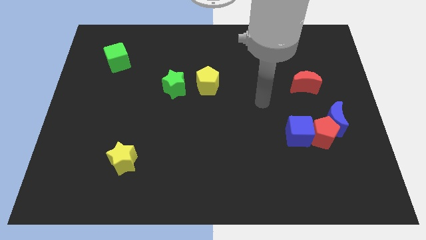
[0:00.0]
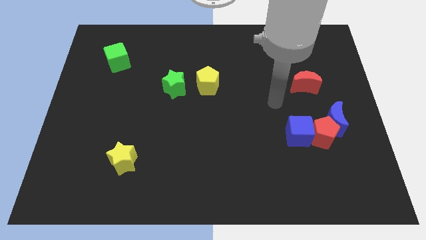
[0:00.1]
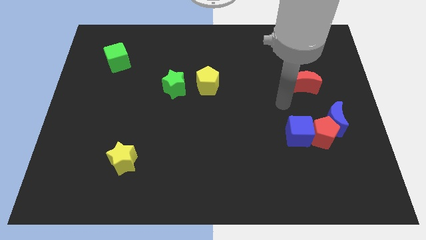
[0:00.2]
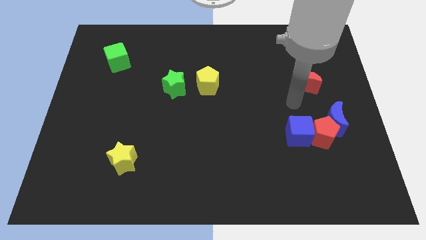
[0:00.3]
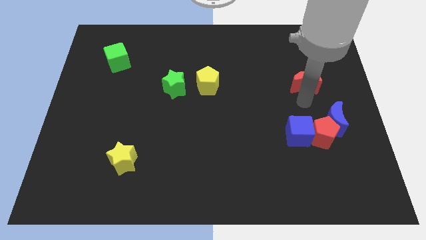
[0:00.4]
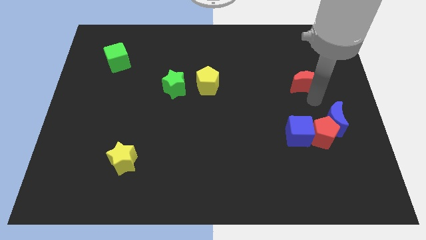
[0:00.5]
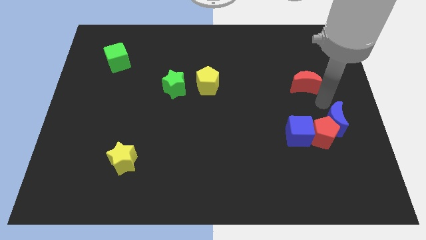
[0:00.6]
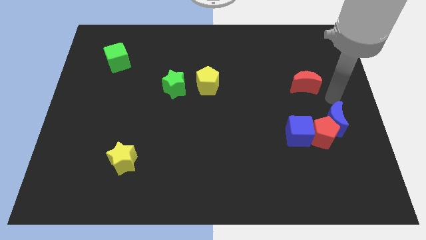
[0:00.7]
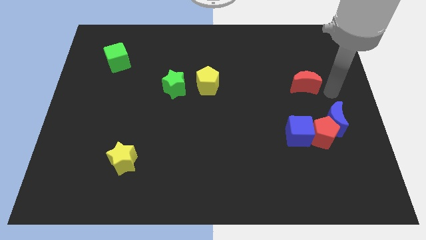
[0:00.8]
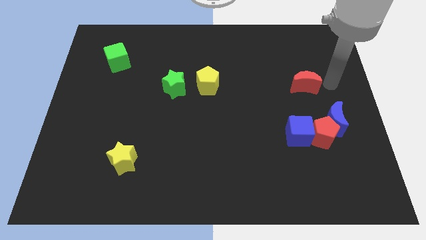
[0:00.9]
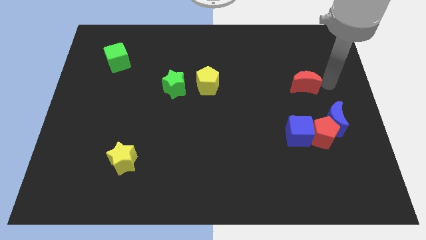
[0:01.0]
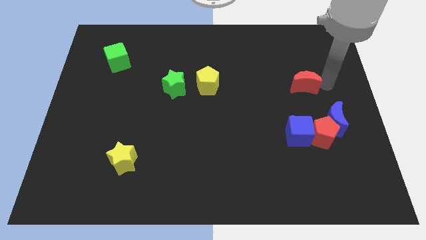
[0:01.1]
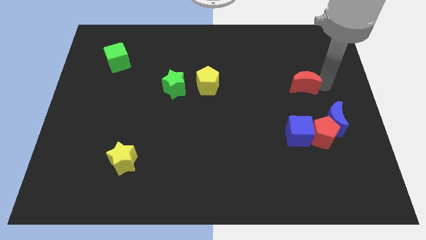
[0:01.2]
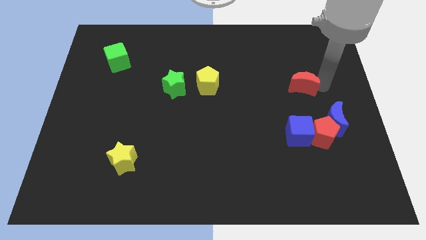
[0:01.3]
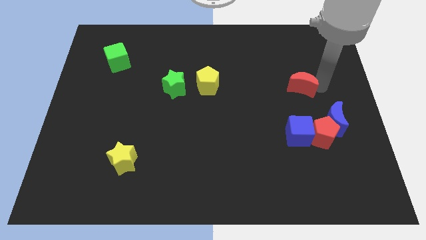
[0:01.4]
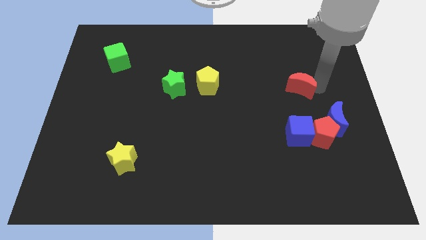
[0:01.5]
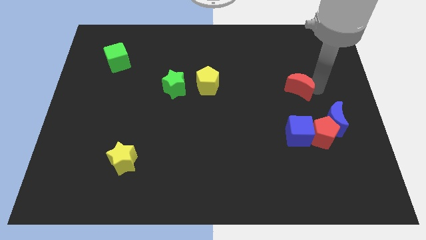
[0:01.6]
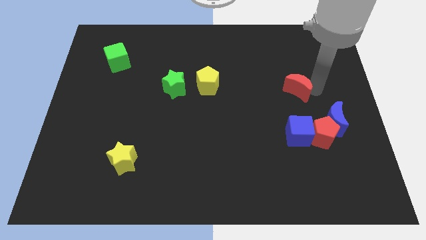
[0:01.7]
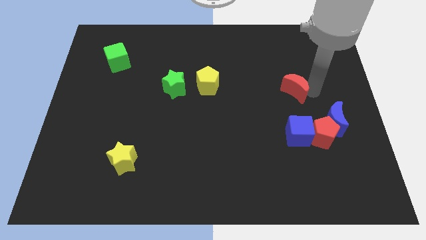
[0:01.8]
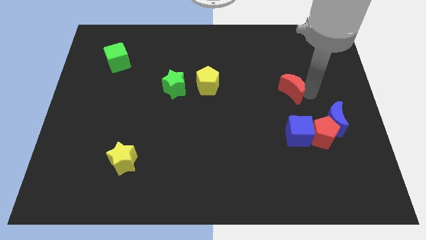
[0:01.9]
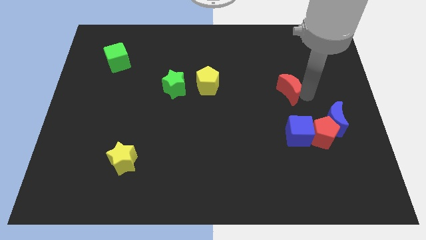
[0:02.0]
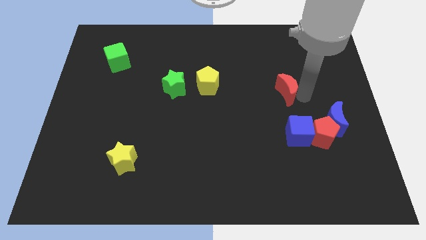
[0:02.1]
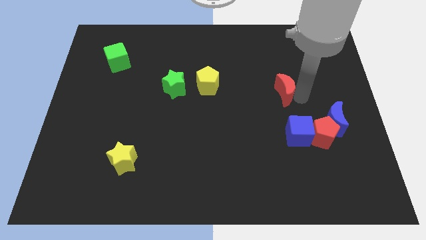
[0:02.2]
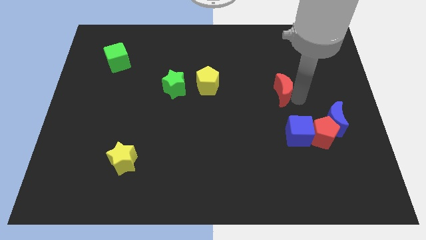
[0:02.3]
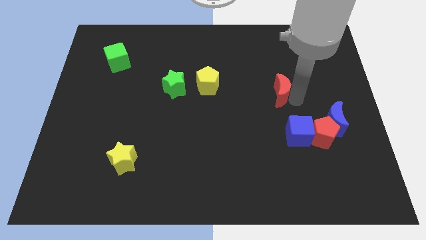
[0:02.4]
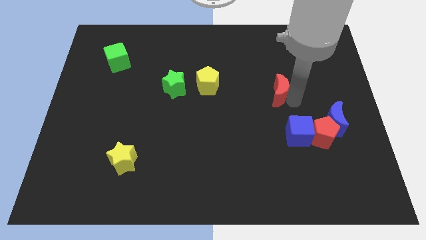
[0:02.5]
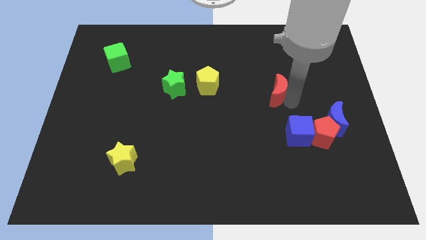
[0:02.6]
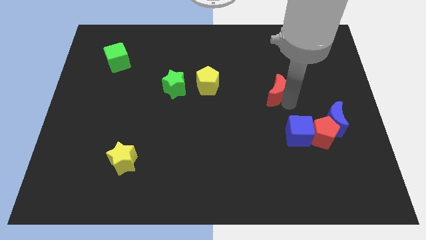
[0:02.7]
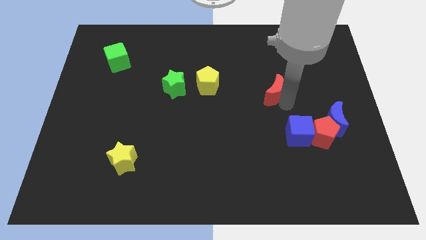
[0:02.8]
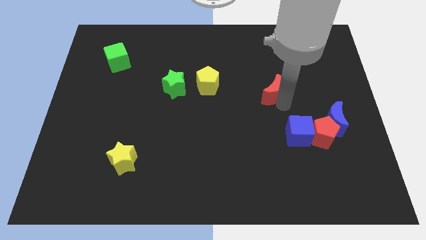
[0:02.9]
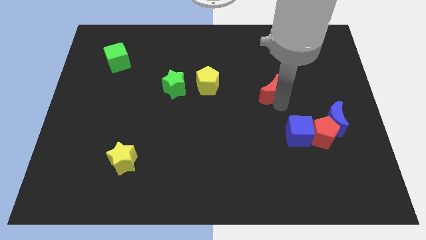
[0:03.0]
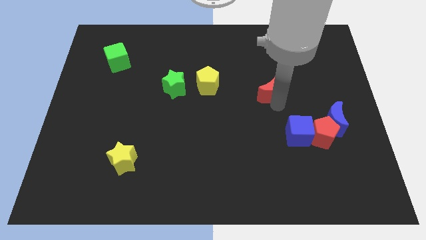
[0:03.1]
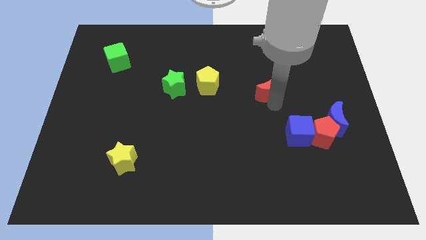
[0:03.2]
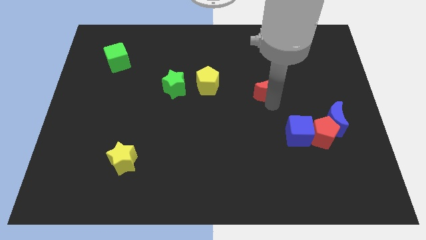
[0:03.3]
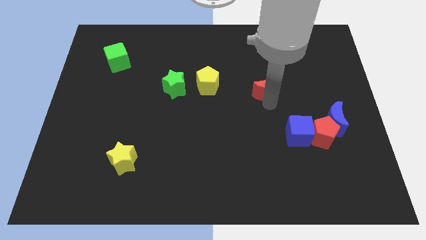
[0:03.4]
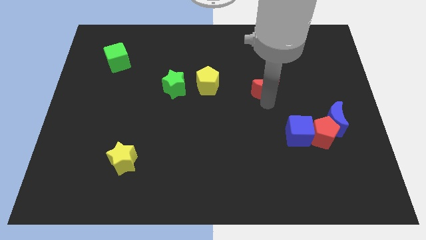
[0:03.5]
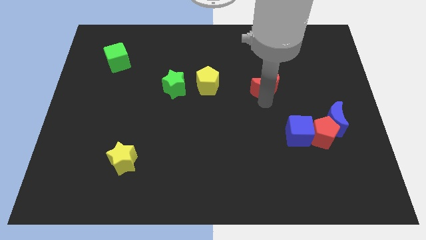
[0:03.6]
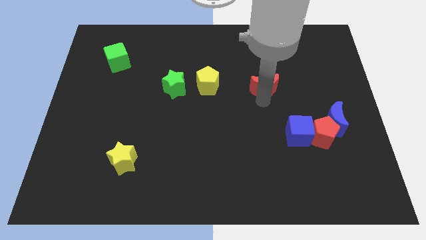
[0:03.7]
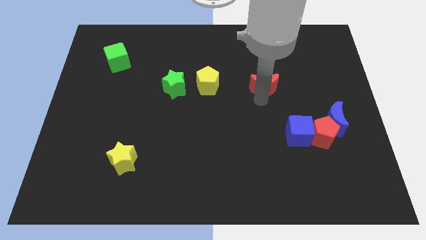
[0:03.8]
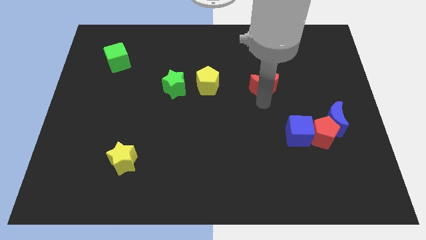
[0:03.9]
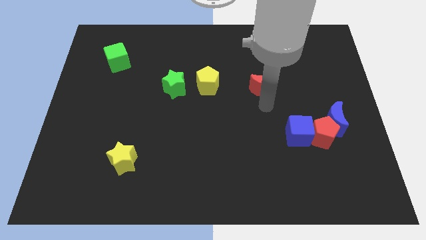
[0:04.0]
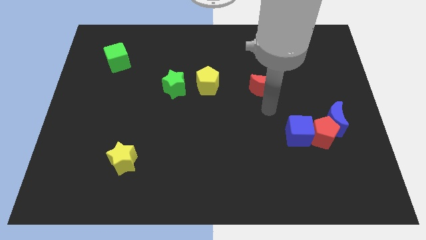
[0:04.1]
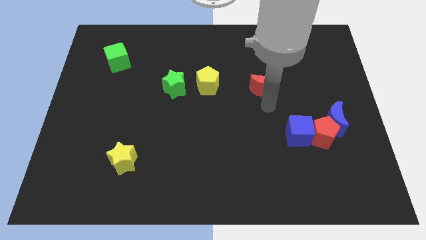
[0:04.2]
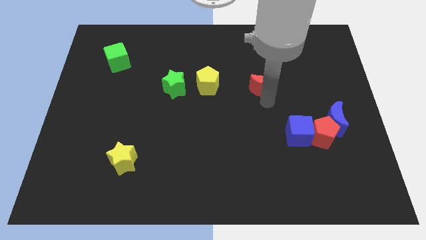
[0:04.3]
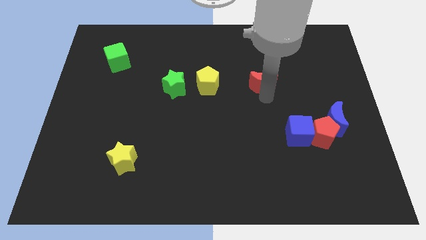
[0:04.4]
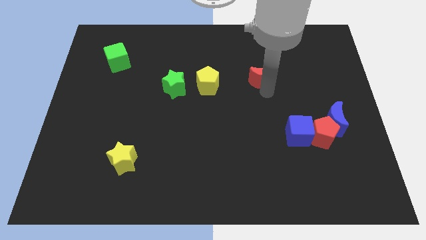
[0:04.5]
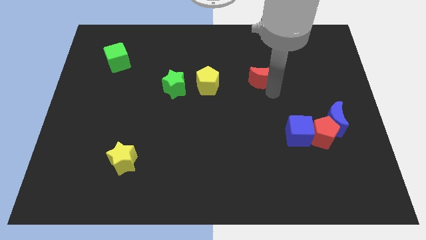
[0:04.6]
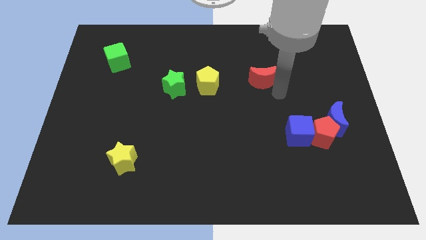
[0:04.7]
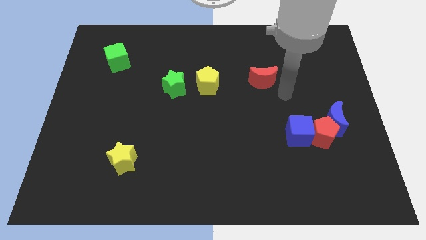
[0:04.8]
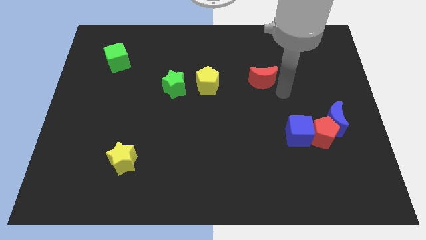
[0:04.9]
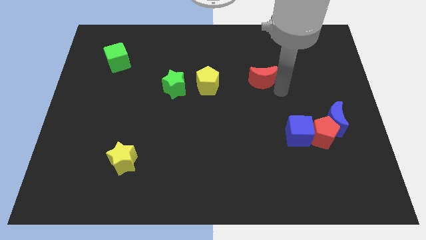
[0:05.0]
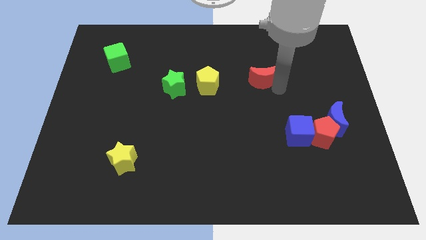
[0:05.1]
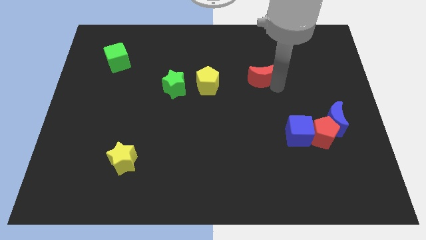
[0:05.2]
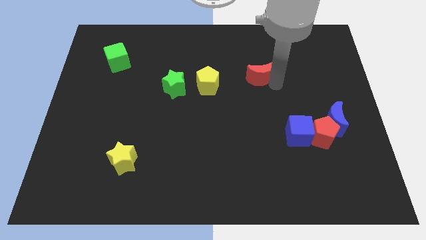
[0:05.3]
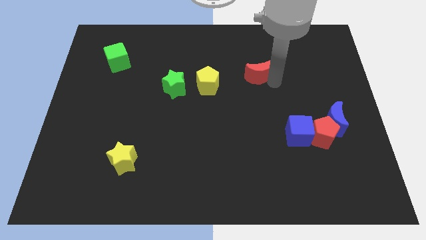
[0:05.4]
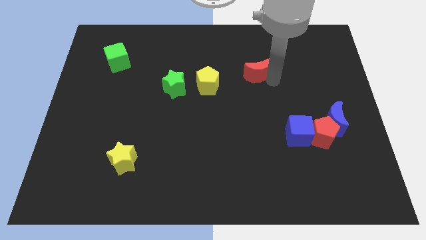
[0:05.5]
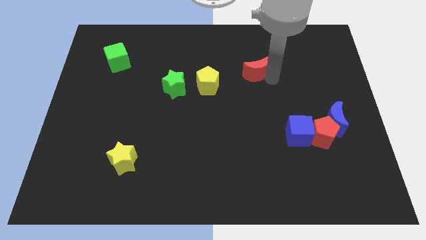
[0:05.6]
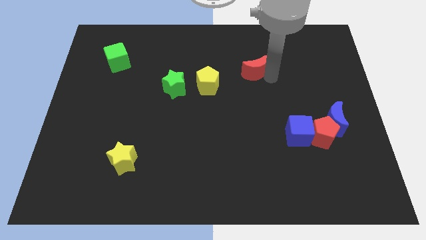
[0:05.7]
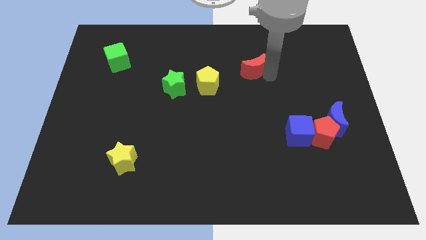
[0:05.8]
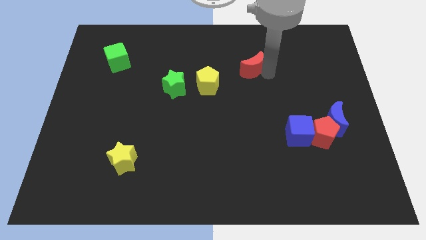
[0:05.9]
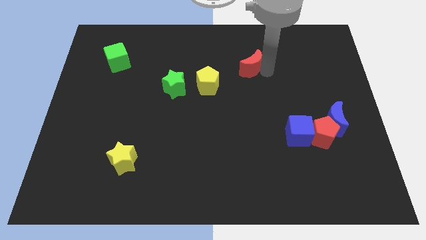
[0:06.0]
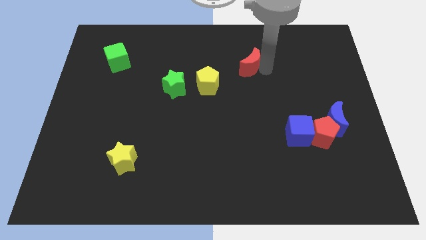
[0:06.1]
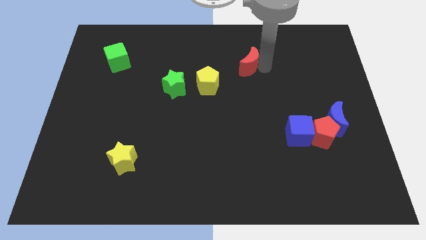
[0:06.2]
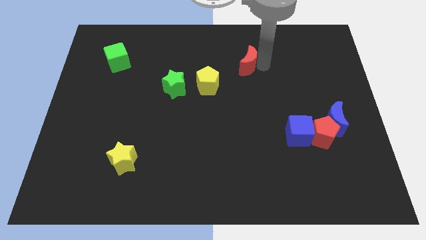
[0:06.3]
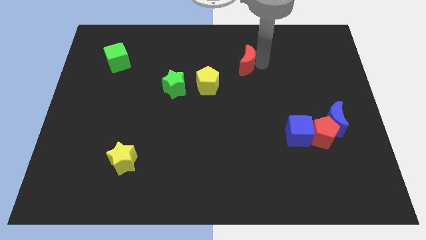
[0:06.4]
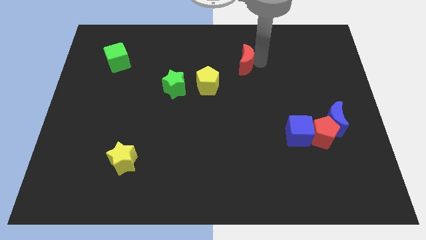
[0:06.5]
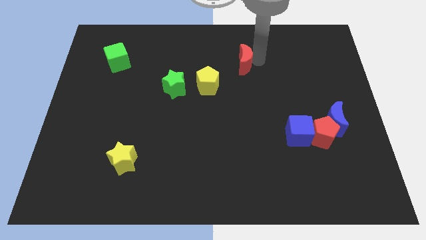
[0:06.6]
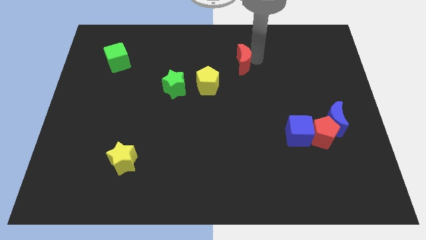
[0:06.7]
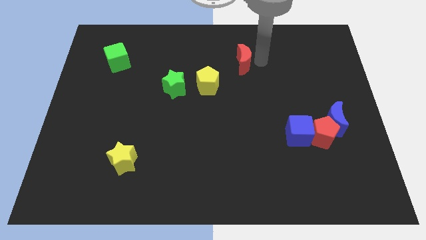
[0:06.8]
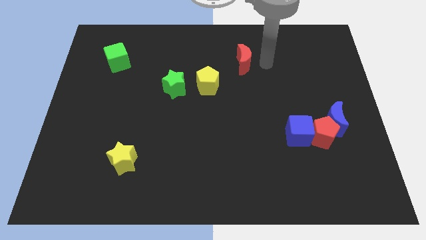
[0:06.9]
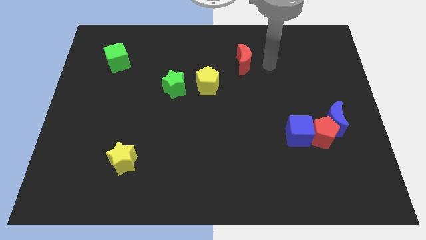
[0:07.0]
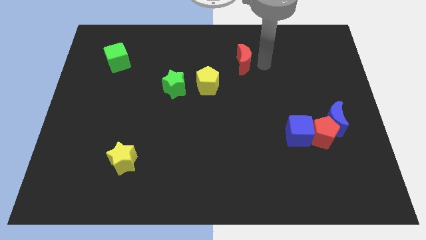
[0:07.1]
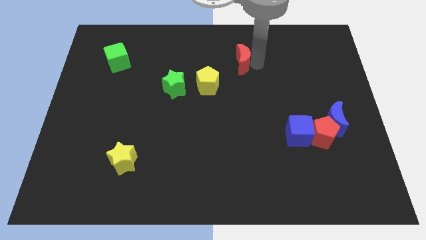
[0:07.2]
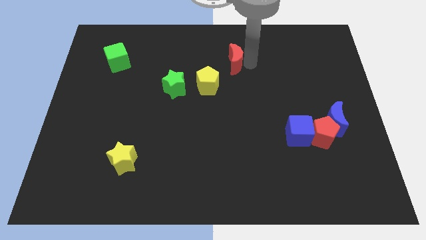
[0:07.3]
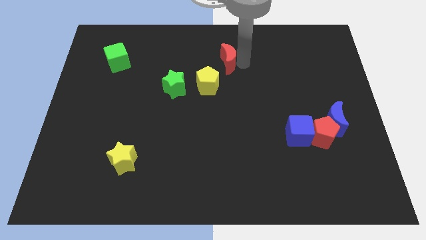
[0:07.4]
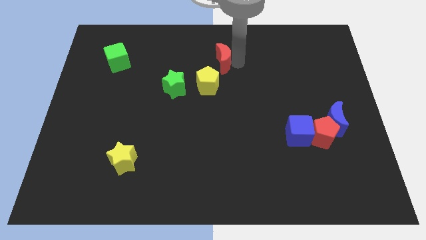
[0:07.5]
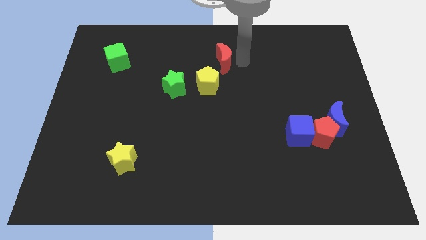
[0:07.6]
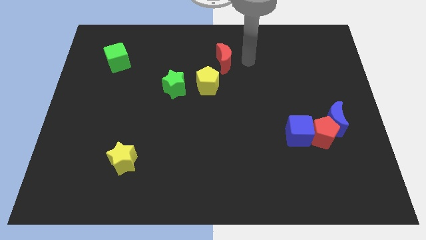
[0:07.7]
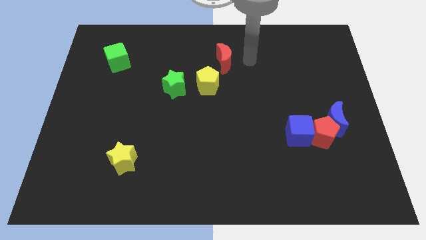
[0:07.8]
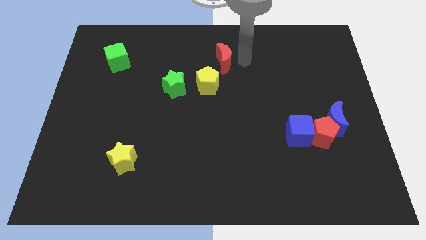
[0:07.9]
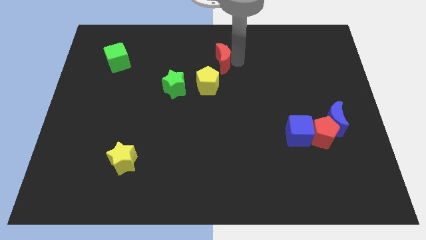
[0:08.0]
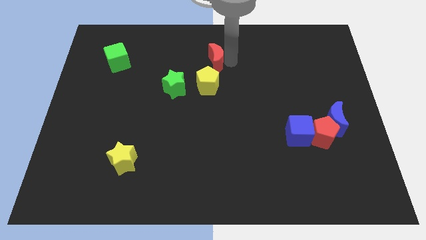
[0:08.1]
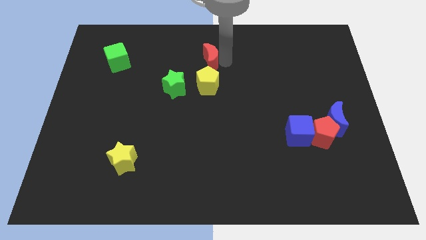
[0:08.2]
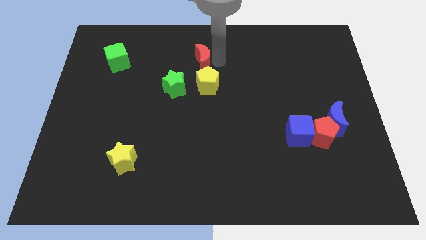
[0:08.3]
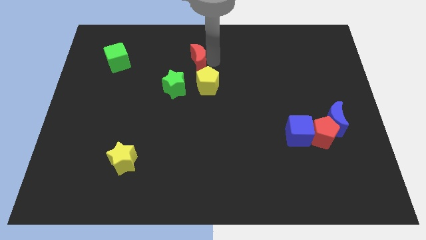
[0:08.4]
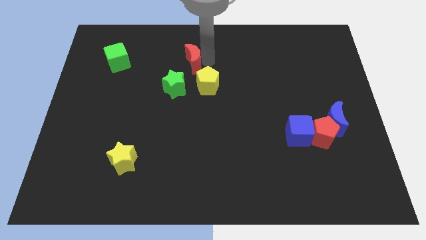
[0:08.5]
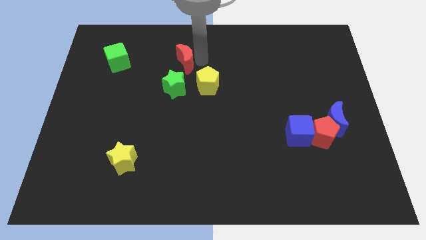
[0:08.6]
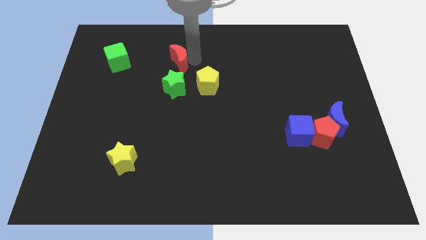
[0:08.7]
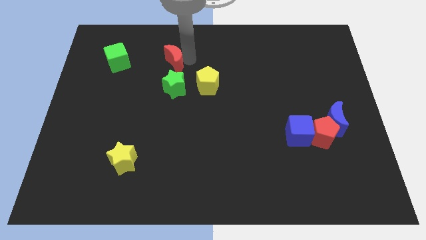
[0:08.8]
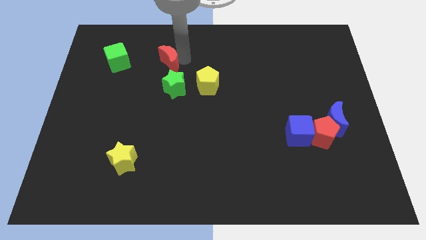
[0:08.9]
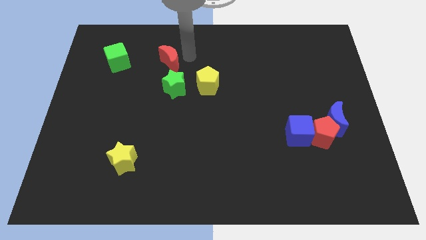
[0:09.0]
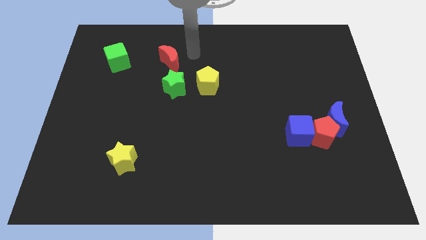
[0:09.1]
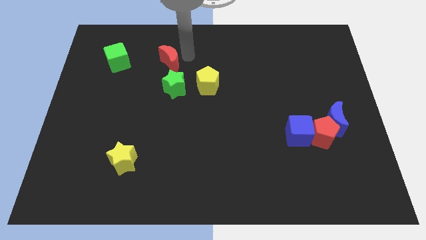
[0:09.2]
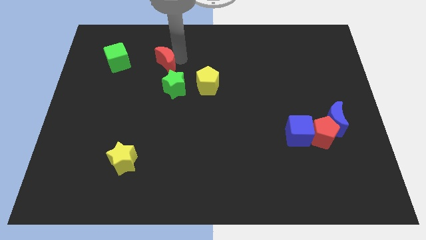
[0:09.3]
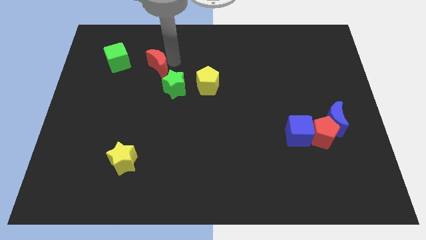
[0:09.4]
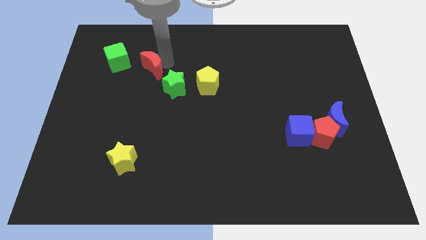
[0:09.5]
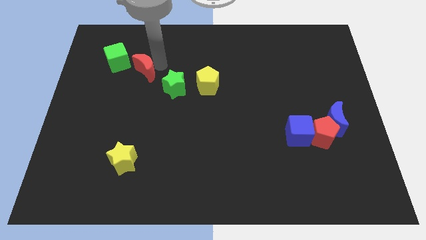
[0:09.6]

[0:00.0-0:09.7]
move the red moon to the bottom right of the green cube
